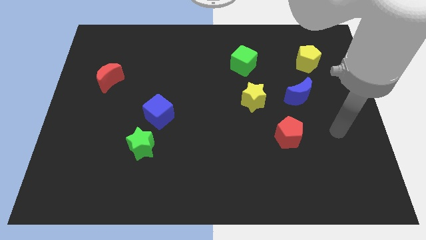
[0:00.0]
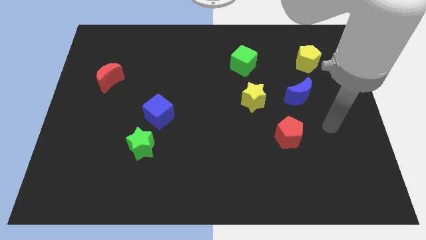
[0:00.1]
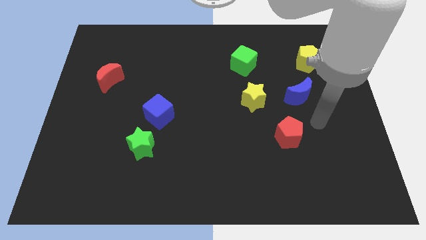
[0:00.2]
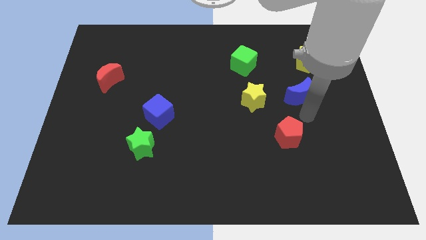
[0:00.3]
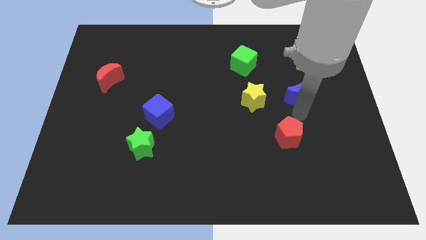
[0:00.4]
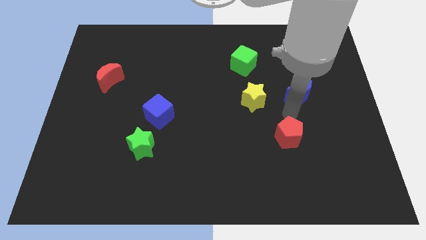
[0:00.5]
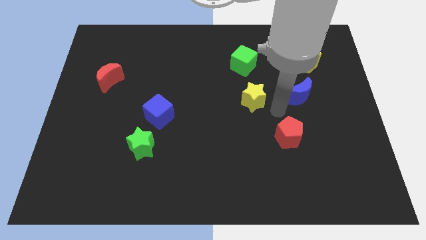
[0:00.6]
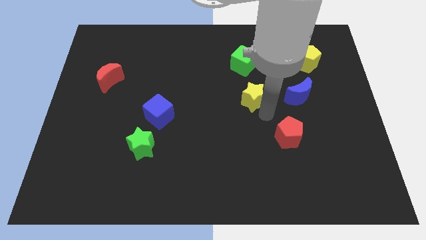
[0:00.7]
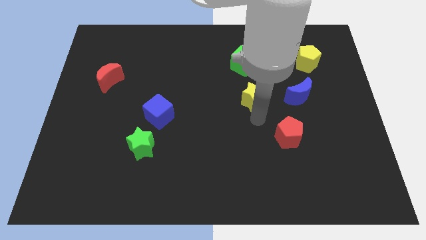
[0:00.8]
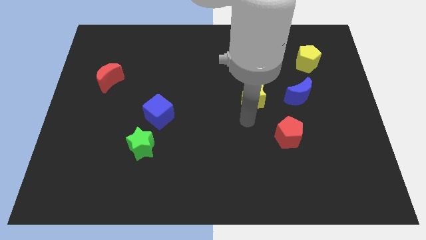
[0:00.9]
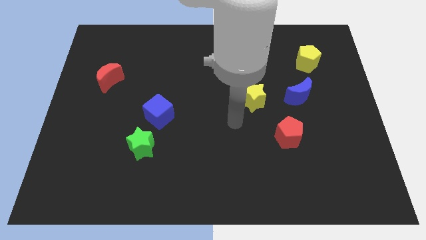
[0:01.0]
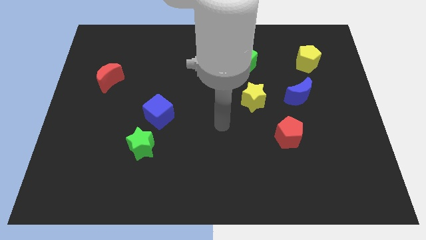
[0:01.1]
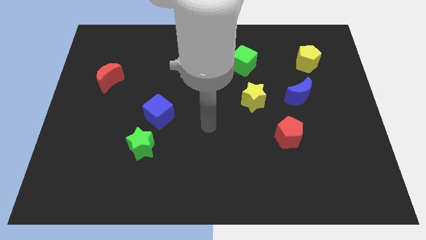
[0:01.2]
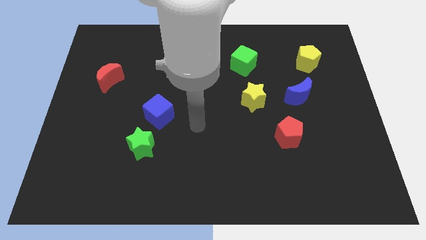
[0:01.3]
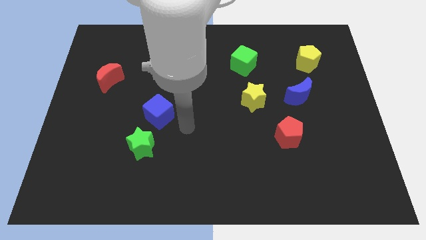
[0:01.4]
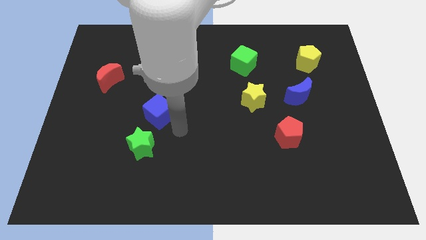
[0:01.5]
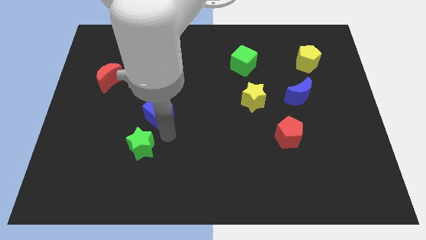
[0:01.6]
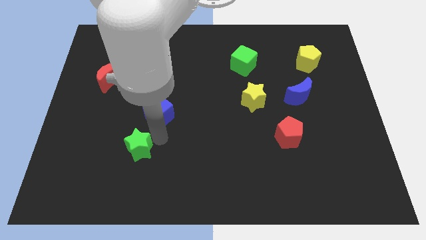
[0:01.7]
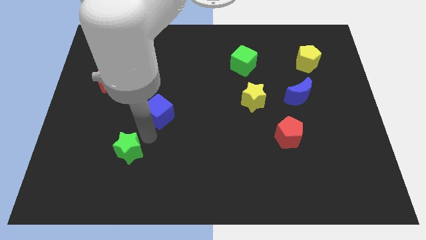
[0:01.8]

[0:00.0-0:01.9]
pull the blue cube apart from the green star

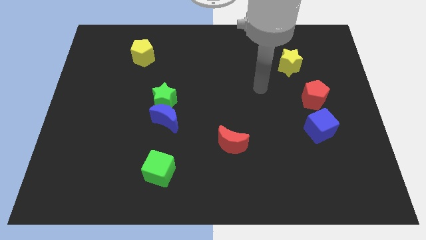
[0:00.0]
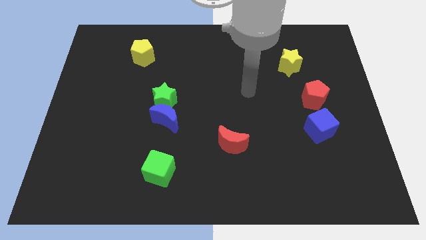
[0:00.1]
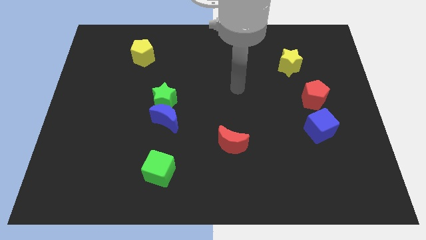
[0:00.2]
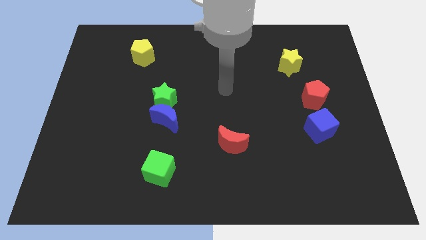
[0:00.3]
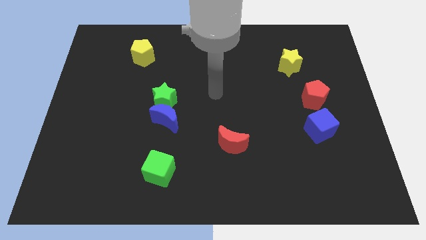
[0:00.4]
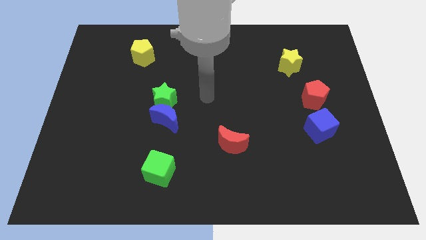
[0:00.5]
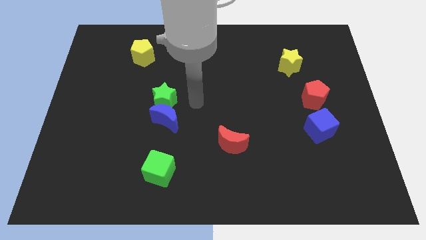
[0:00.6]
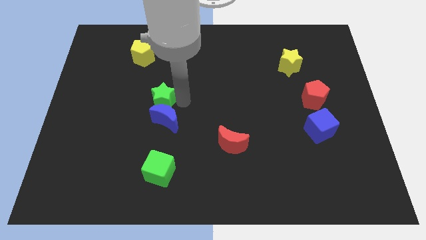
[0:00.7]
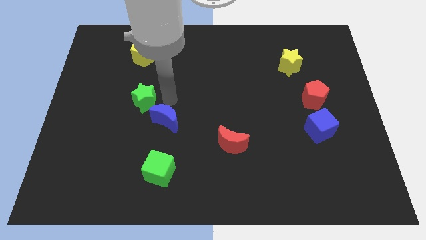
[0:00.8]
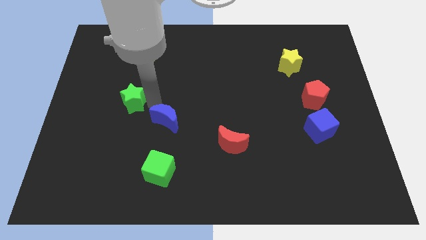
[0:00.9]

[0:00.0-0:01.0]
pull the blue moon apart from the green star

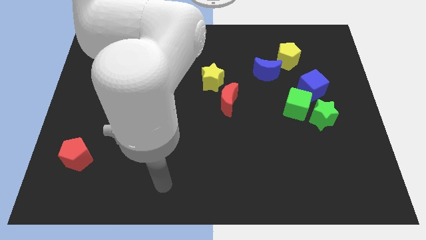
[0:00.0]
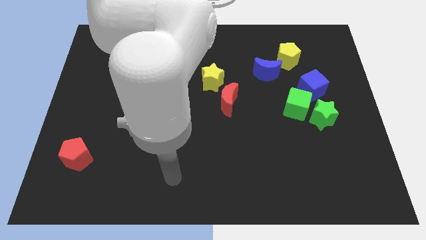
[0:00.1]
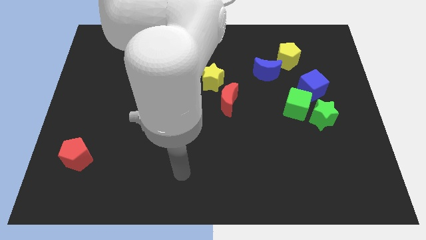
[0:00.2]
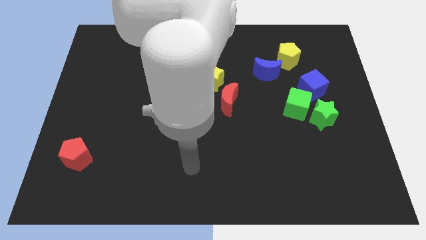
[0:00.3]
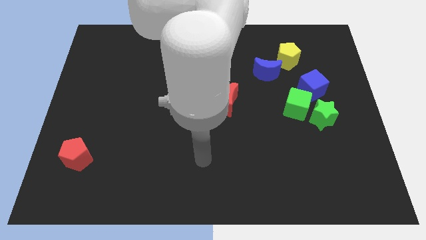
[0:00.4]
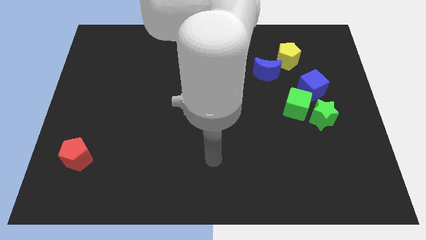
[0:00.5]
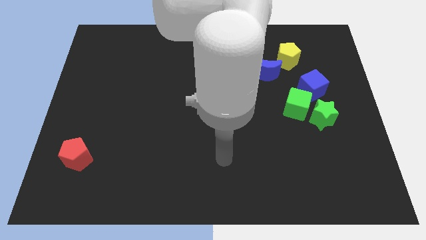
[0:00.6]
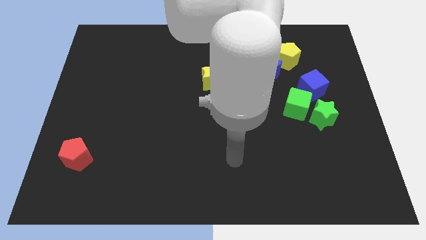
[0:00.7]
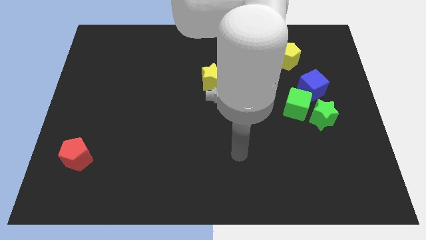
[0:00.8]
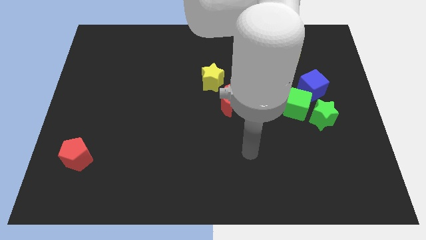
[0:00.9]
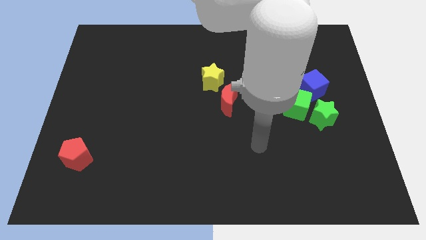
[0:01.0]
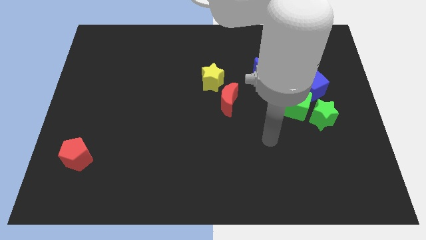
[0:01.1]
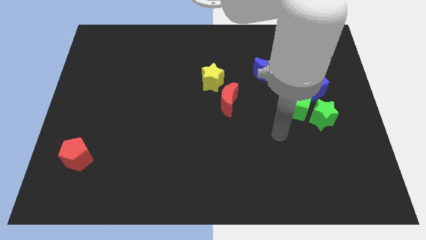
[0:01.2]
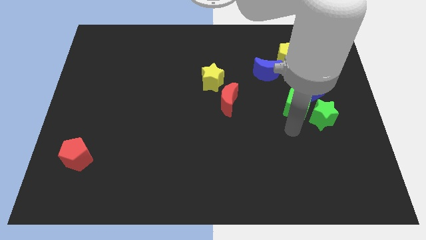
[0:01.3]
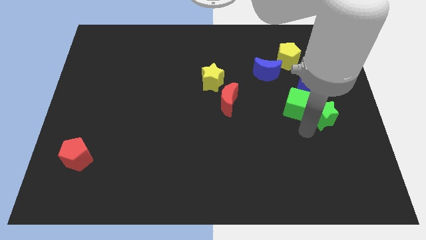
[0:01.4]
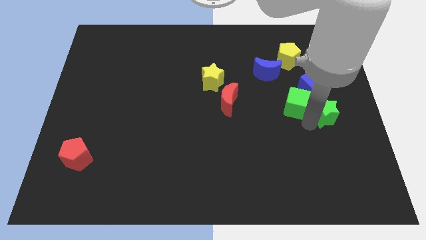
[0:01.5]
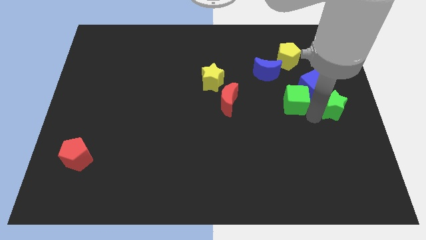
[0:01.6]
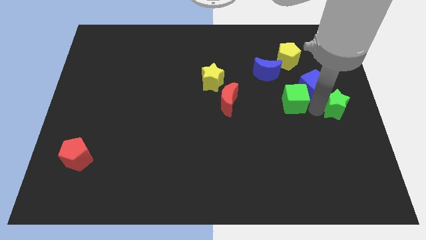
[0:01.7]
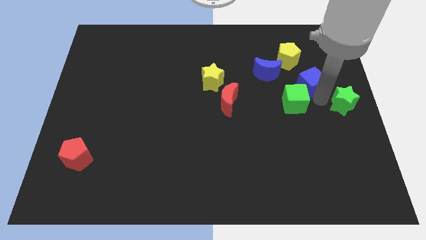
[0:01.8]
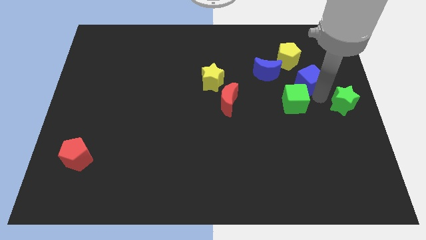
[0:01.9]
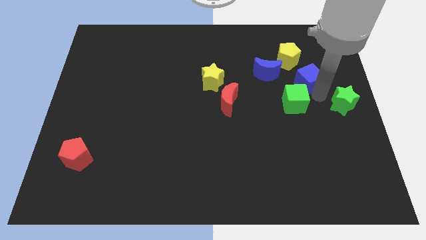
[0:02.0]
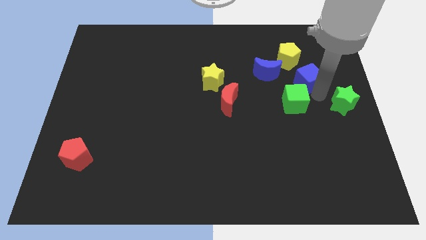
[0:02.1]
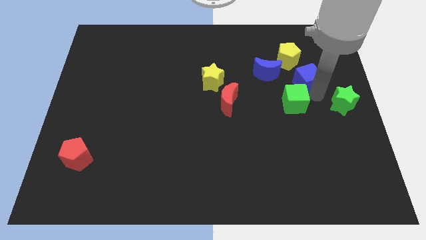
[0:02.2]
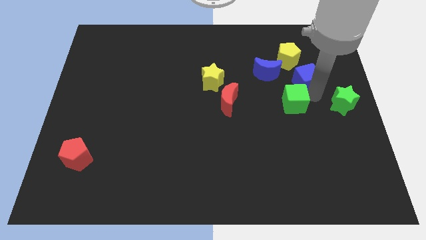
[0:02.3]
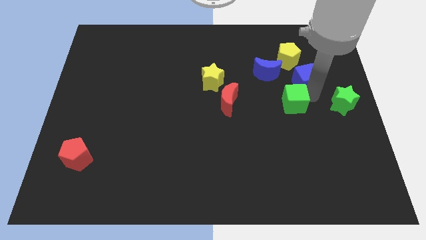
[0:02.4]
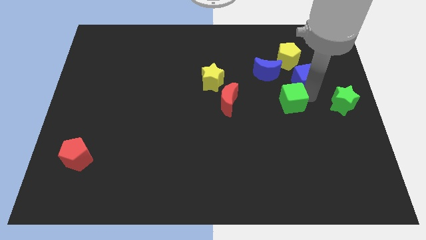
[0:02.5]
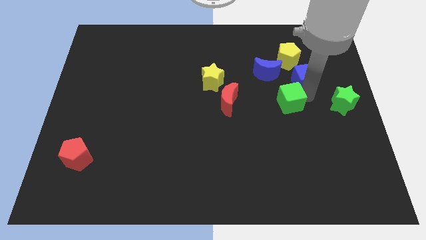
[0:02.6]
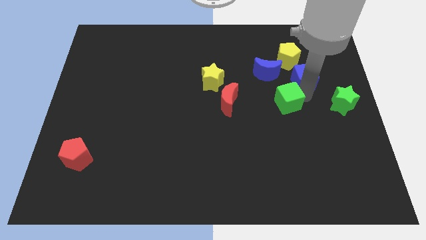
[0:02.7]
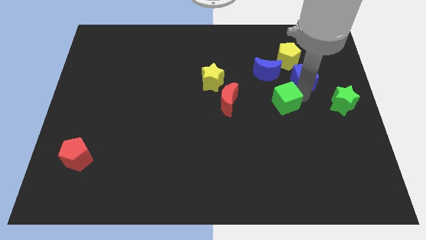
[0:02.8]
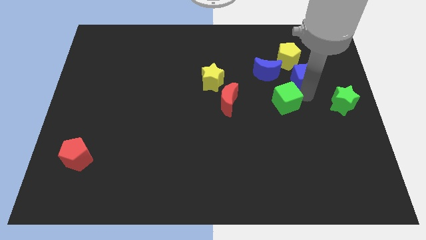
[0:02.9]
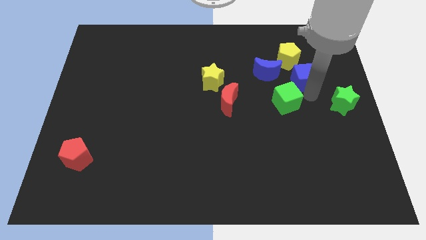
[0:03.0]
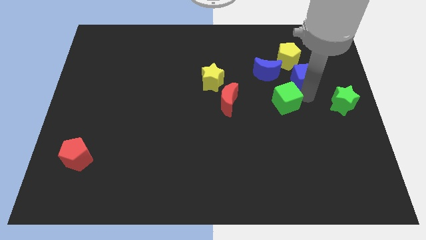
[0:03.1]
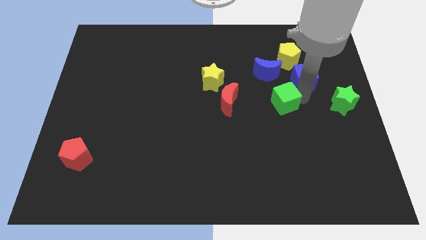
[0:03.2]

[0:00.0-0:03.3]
pull the green cube apart from the green star and blue cube

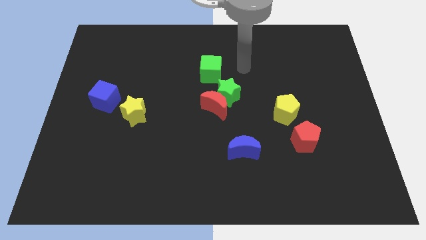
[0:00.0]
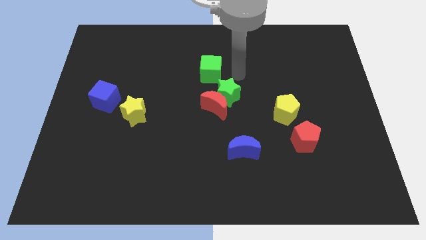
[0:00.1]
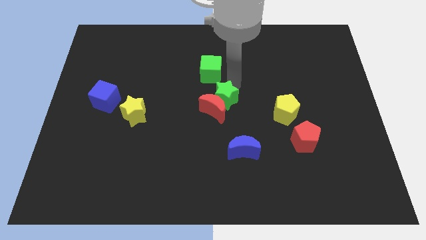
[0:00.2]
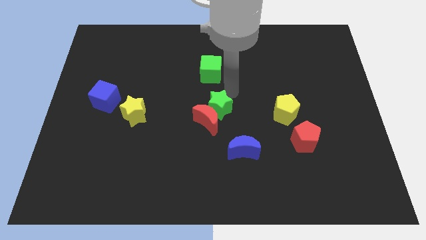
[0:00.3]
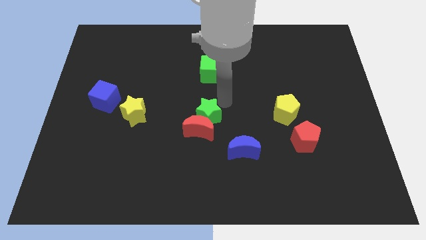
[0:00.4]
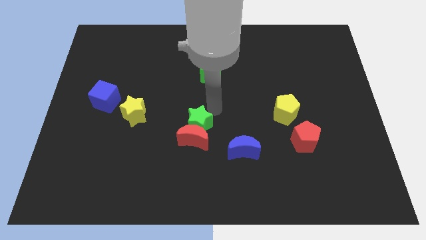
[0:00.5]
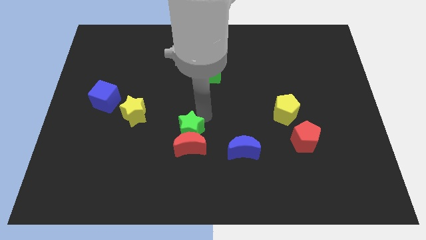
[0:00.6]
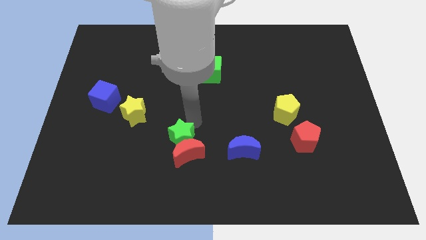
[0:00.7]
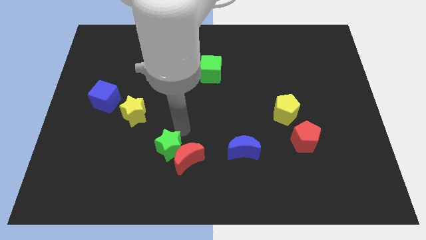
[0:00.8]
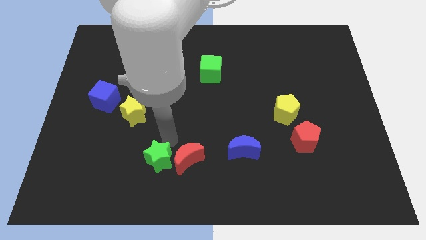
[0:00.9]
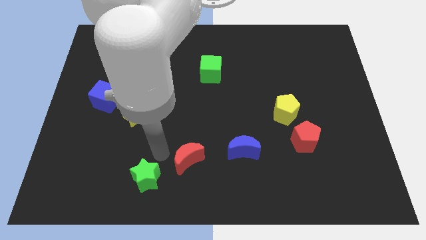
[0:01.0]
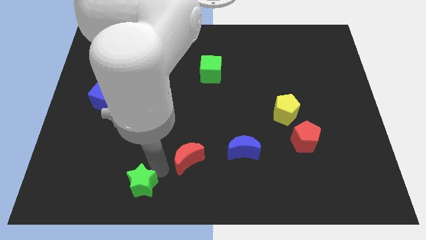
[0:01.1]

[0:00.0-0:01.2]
separate the red moon from the green star

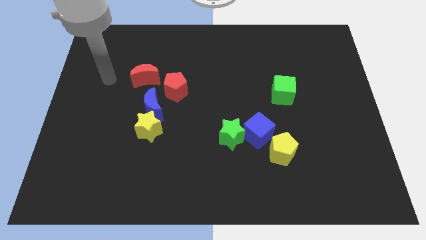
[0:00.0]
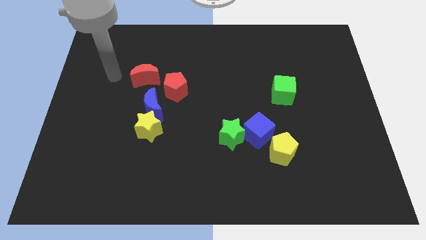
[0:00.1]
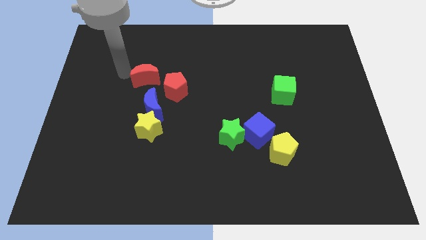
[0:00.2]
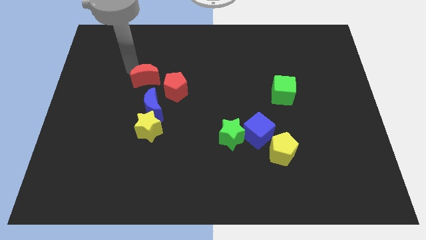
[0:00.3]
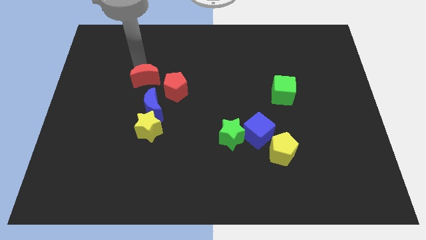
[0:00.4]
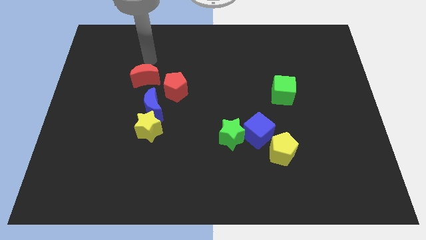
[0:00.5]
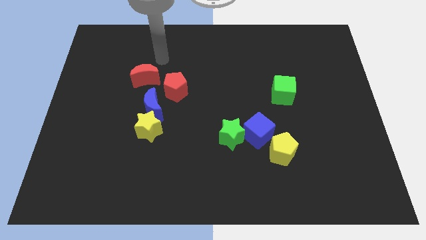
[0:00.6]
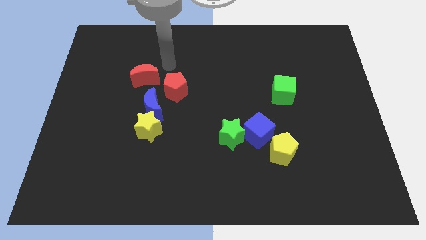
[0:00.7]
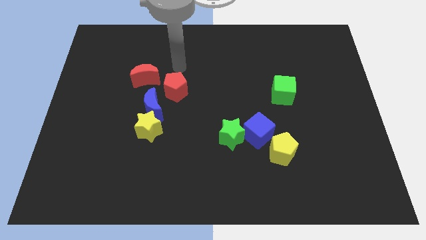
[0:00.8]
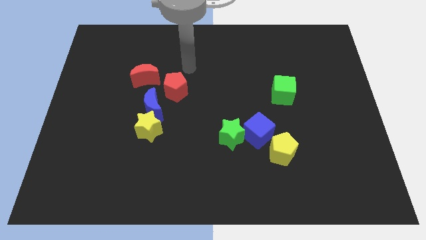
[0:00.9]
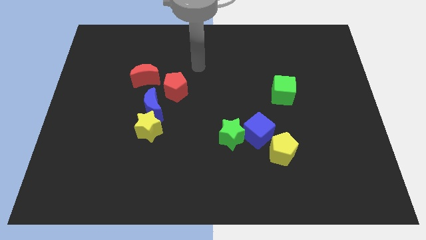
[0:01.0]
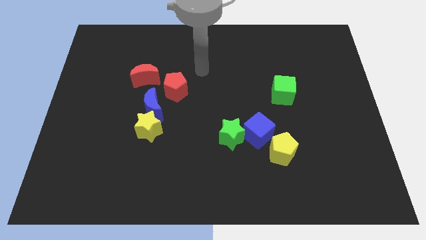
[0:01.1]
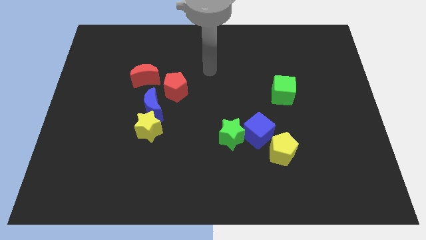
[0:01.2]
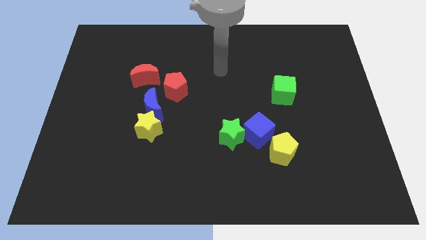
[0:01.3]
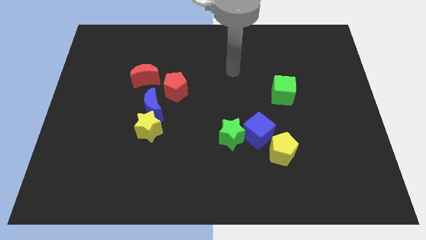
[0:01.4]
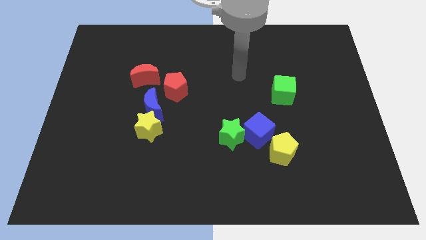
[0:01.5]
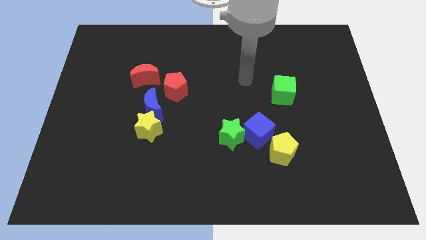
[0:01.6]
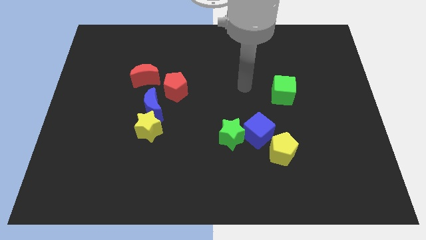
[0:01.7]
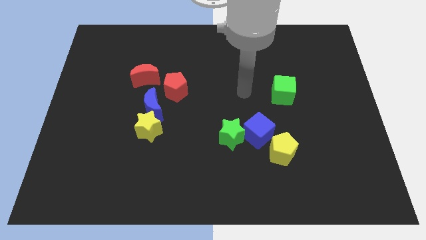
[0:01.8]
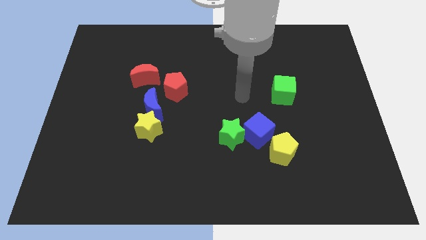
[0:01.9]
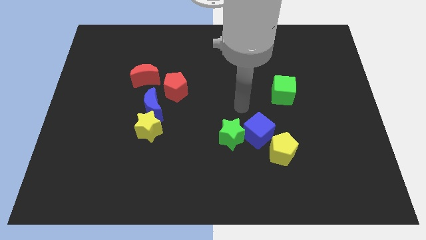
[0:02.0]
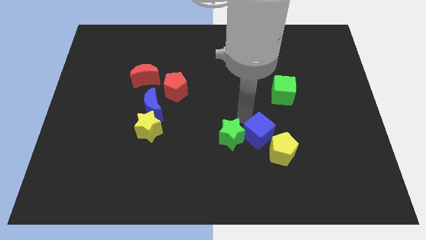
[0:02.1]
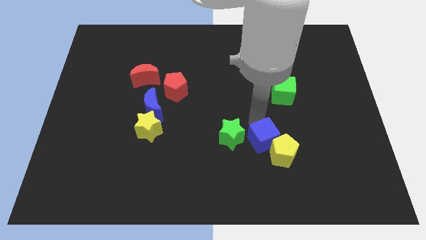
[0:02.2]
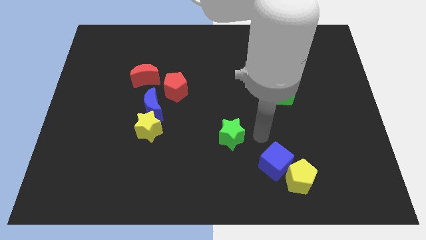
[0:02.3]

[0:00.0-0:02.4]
move the green star away from the blue cube
